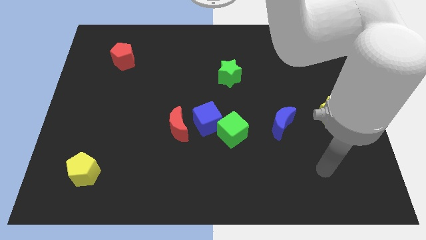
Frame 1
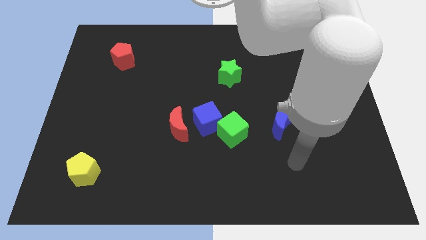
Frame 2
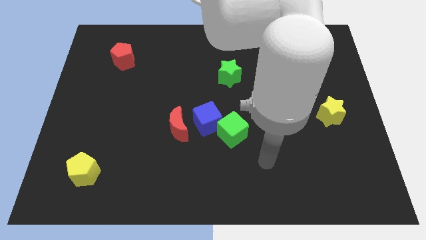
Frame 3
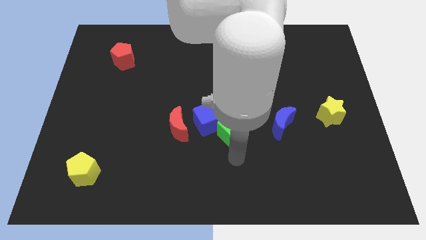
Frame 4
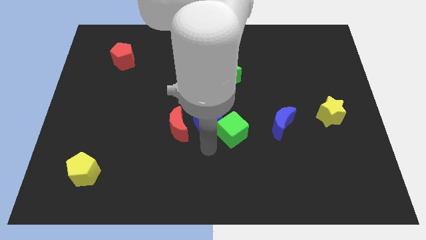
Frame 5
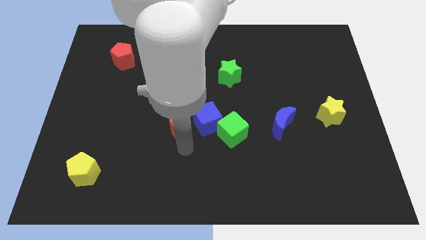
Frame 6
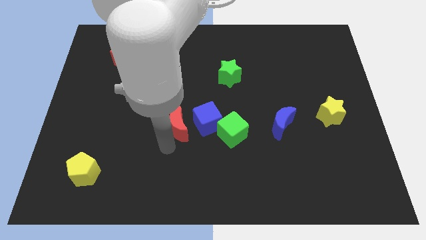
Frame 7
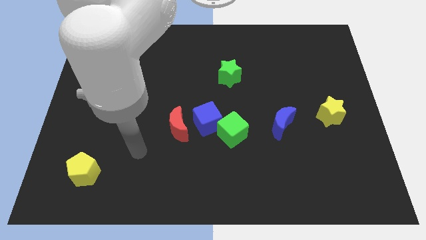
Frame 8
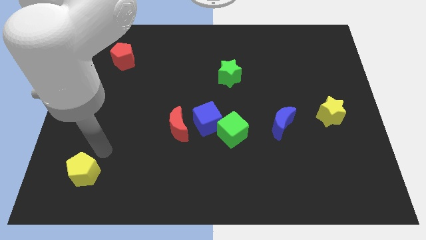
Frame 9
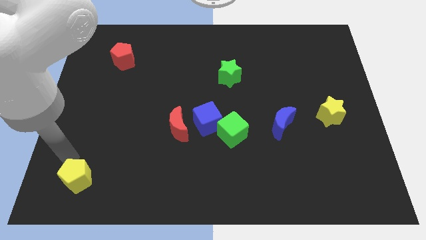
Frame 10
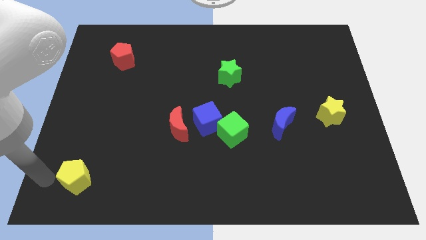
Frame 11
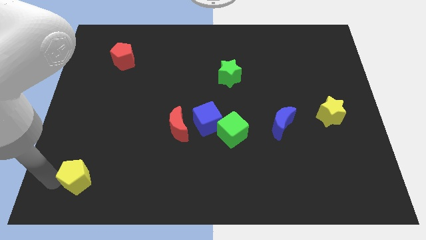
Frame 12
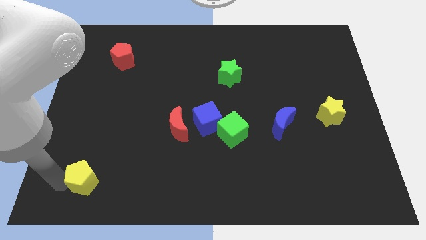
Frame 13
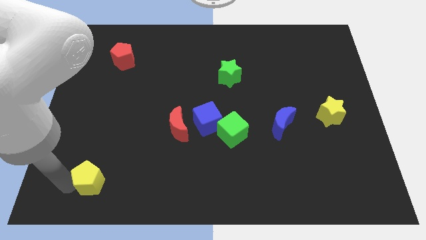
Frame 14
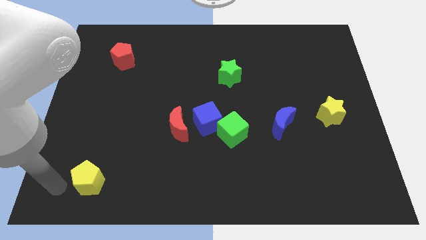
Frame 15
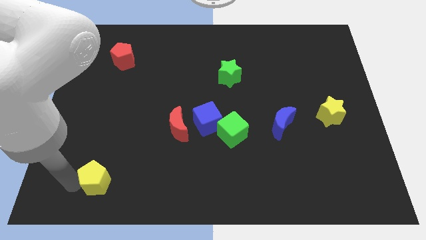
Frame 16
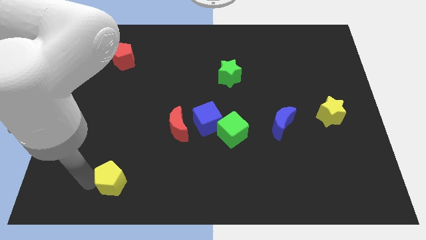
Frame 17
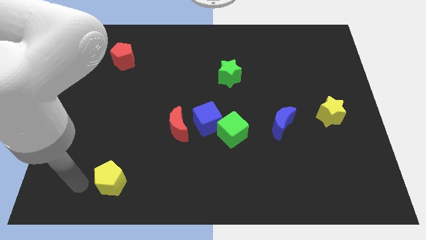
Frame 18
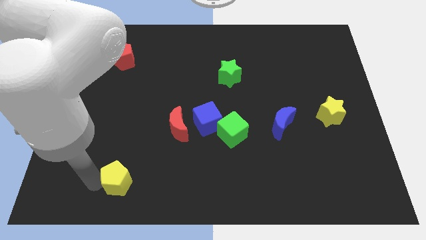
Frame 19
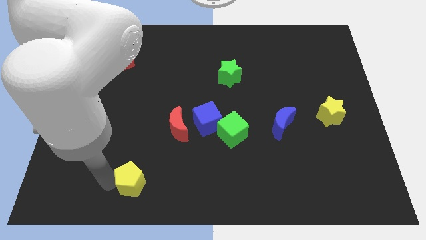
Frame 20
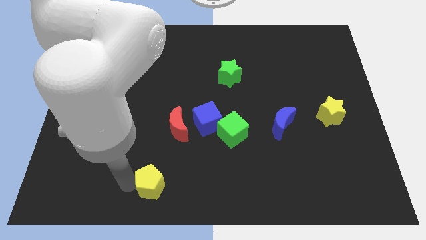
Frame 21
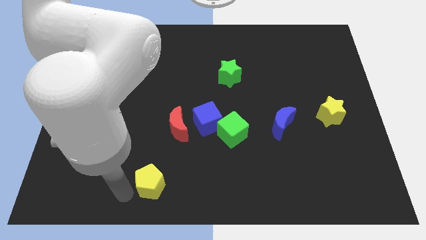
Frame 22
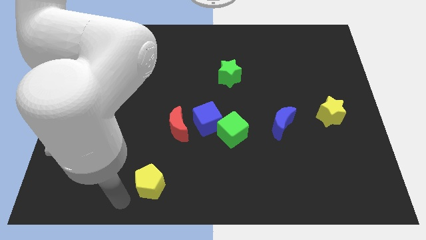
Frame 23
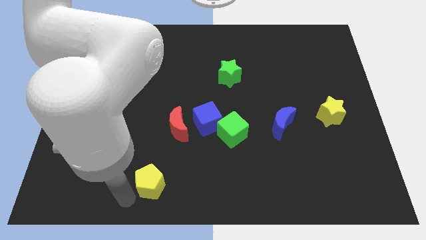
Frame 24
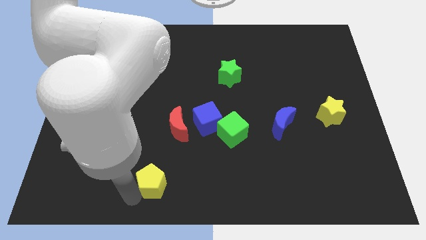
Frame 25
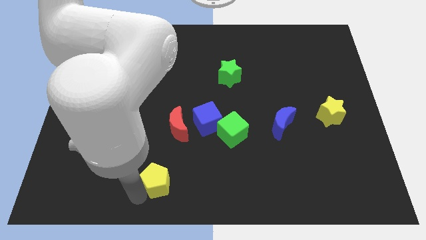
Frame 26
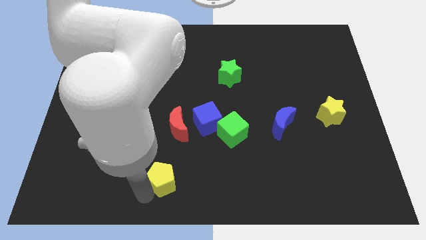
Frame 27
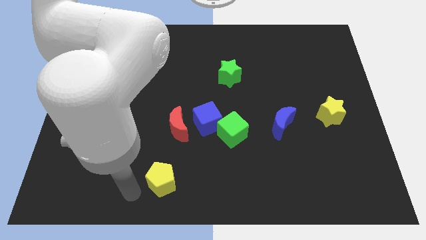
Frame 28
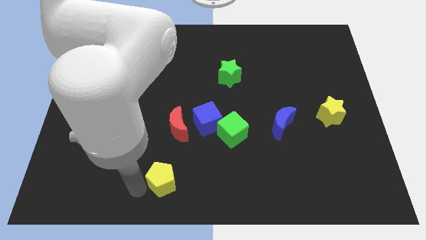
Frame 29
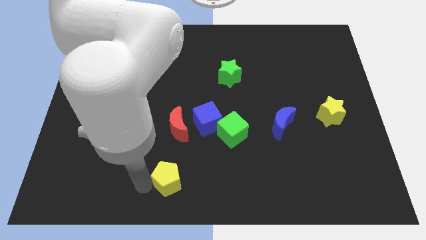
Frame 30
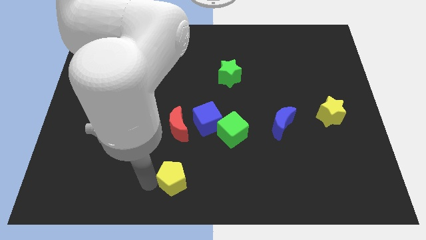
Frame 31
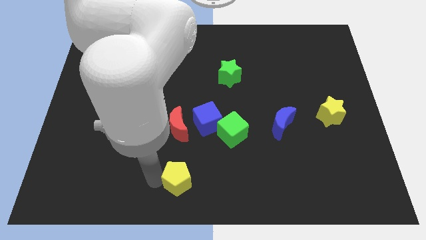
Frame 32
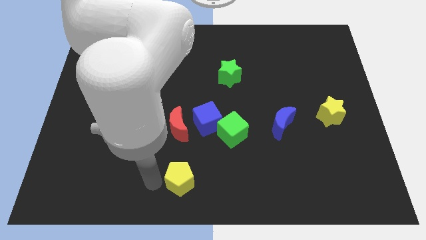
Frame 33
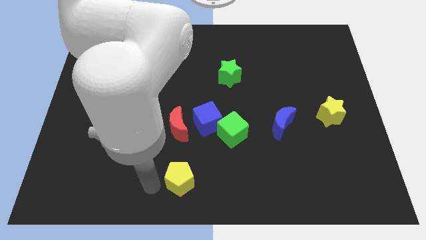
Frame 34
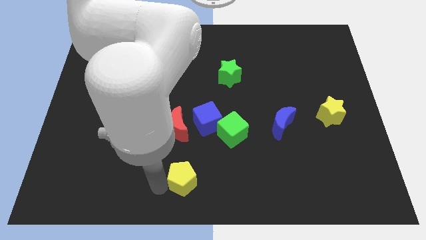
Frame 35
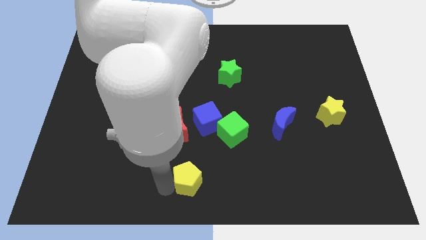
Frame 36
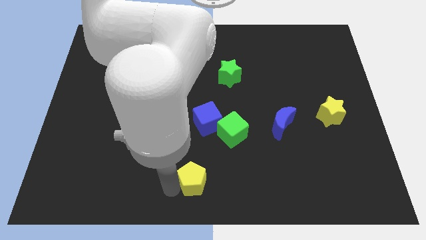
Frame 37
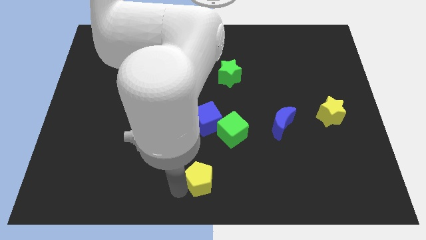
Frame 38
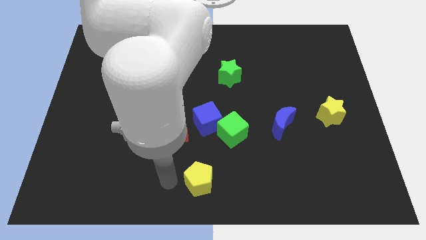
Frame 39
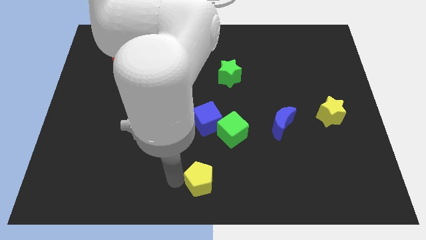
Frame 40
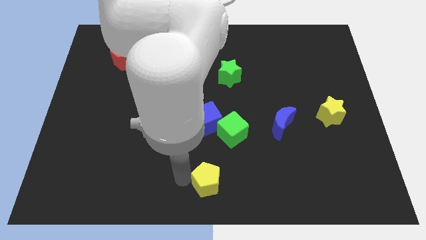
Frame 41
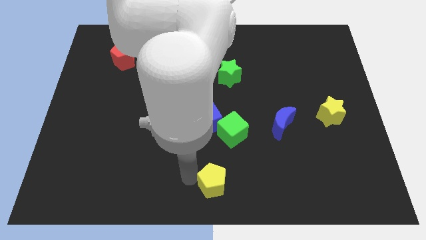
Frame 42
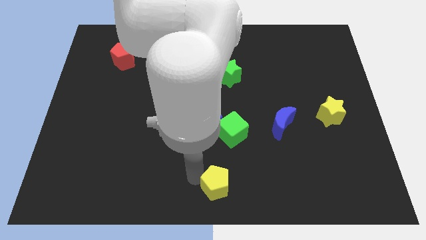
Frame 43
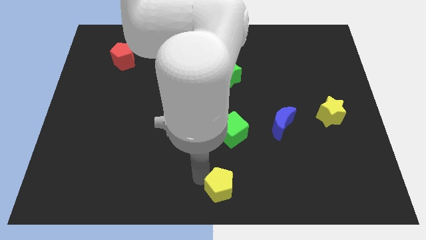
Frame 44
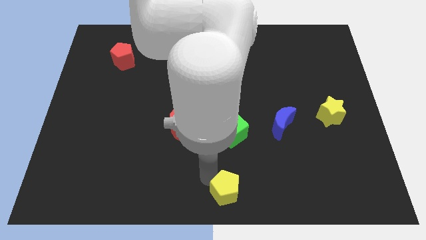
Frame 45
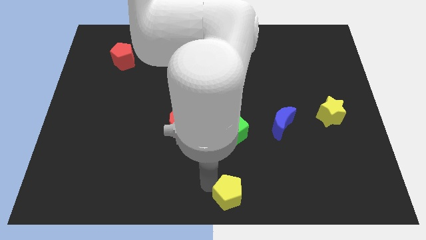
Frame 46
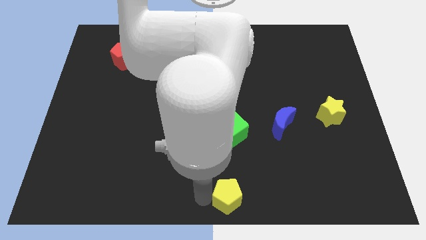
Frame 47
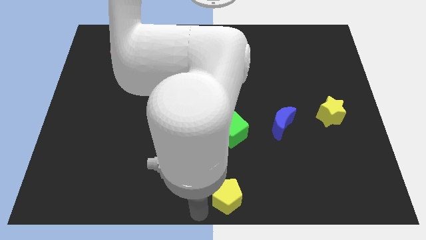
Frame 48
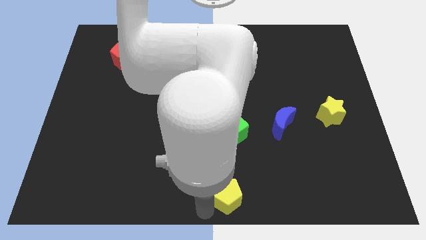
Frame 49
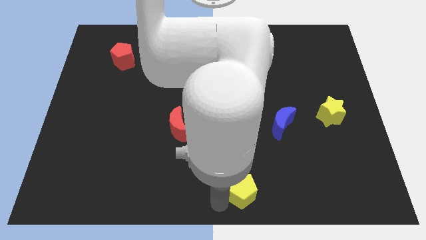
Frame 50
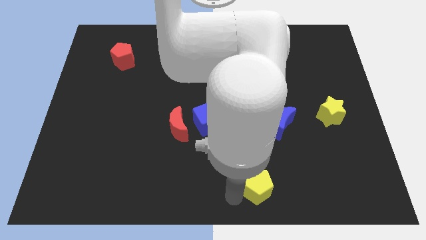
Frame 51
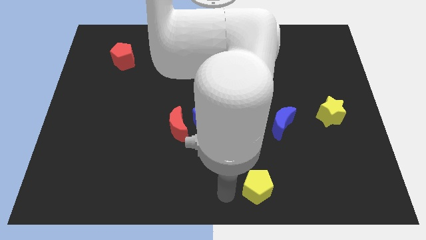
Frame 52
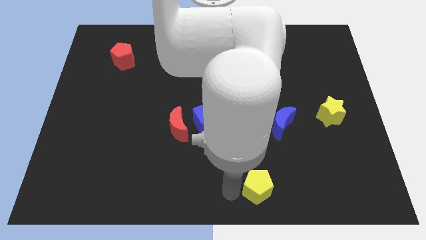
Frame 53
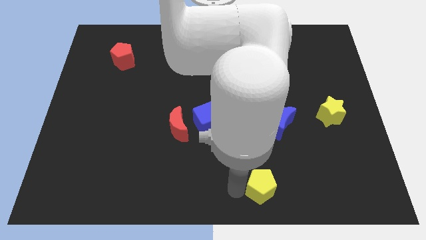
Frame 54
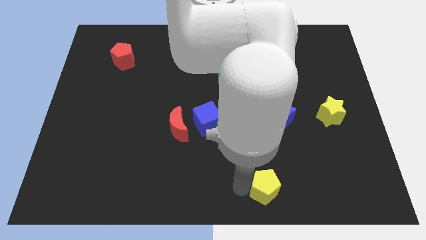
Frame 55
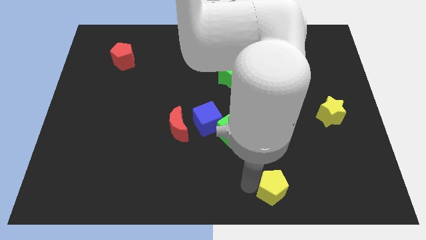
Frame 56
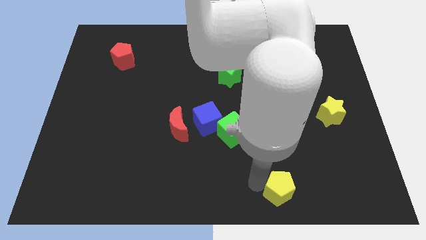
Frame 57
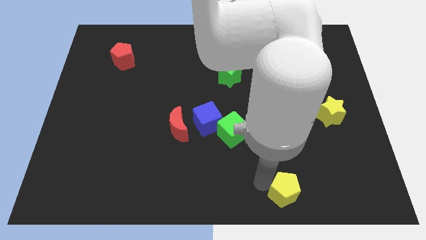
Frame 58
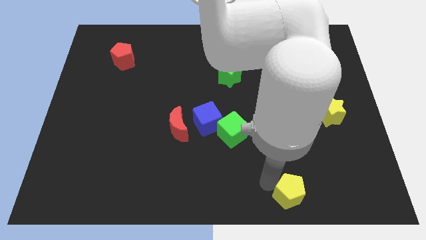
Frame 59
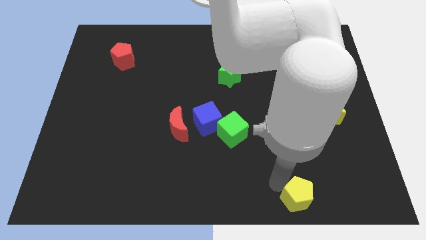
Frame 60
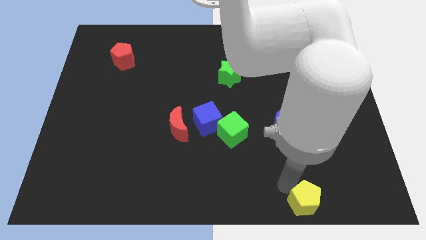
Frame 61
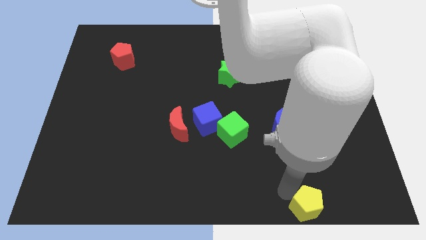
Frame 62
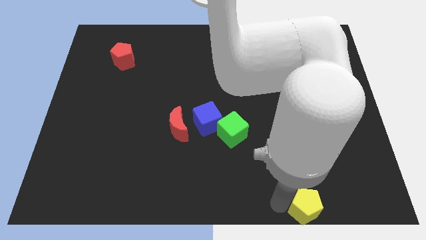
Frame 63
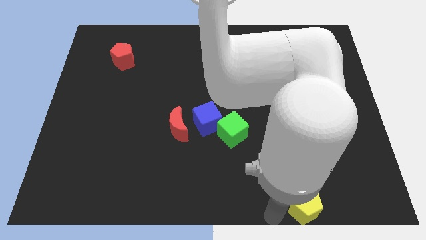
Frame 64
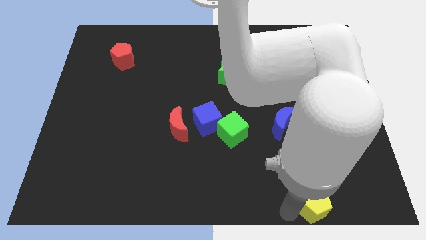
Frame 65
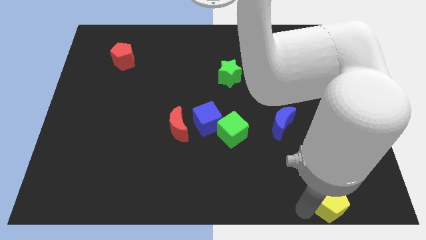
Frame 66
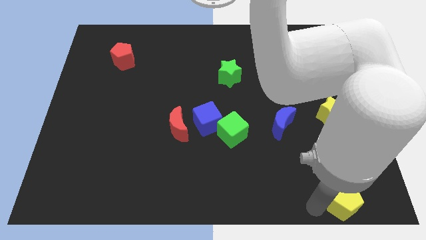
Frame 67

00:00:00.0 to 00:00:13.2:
put the yellow pentagon to the lower right corner

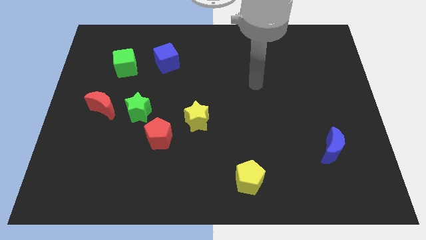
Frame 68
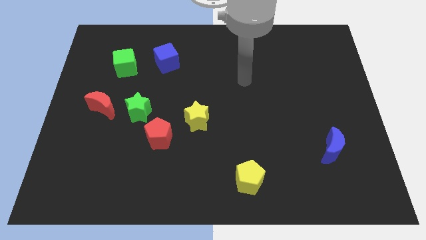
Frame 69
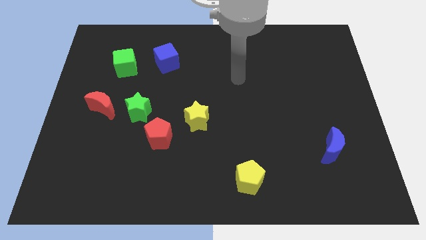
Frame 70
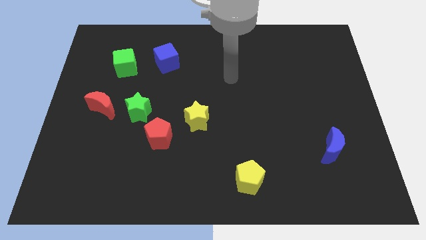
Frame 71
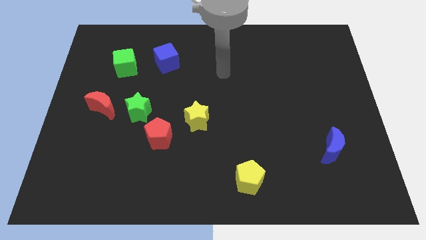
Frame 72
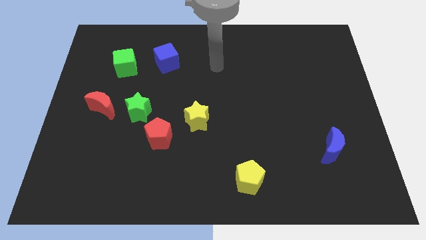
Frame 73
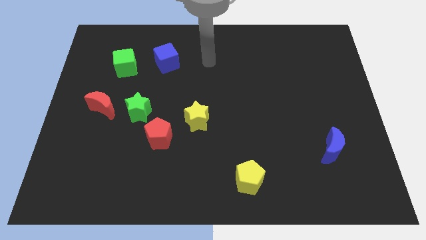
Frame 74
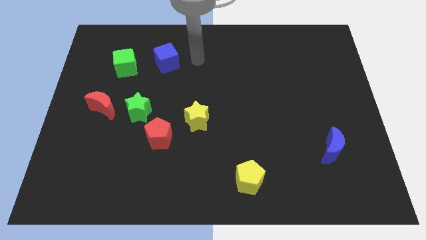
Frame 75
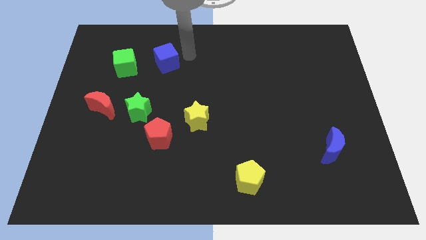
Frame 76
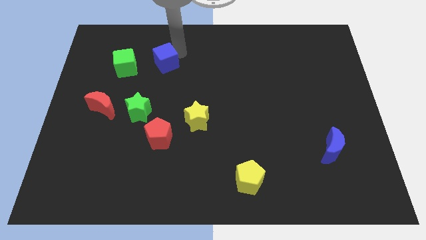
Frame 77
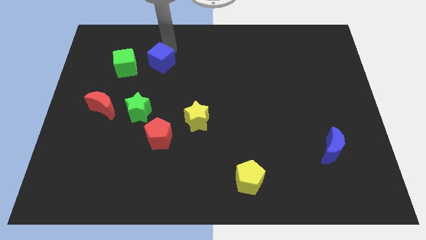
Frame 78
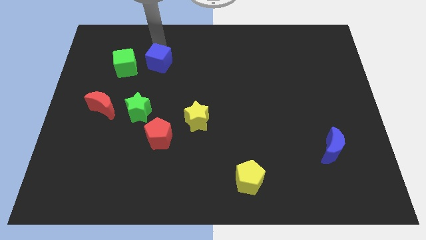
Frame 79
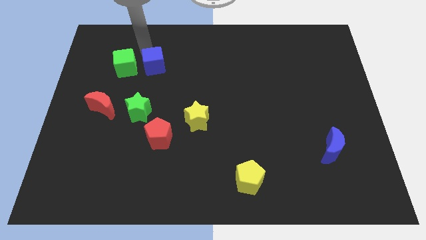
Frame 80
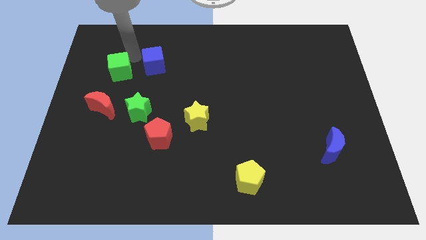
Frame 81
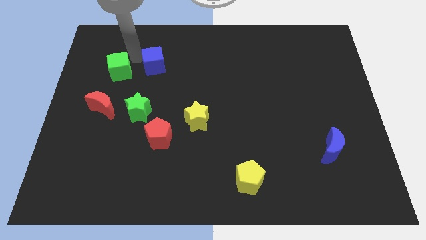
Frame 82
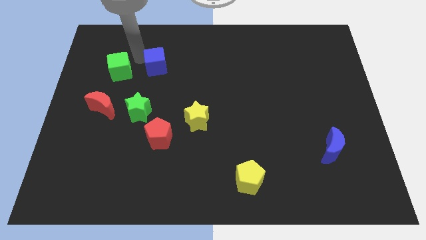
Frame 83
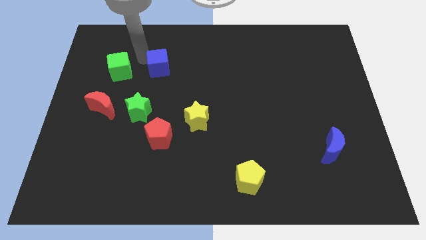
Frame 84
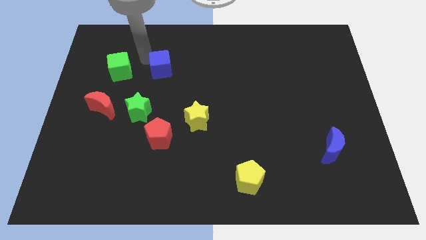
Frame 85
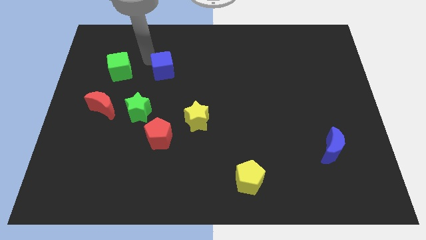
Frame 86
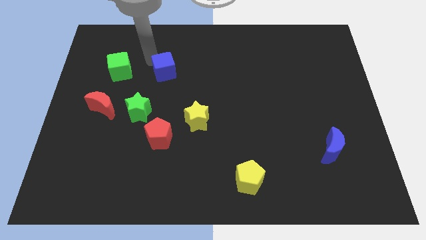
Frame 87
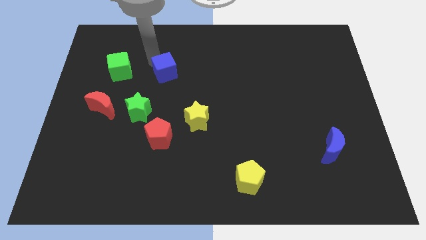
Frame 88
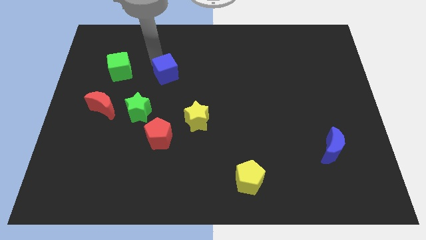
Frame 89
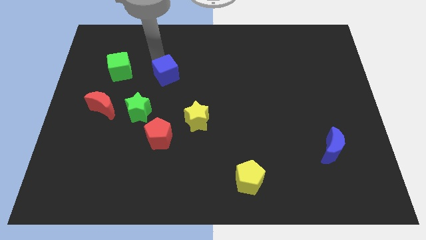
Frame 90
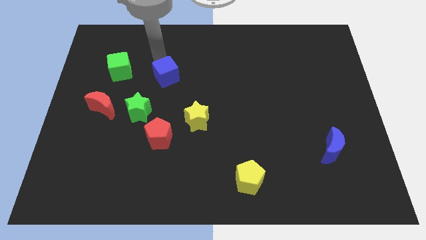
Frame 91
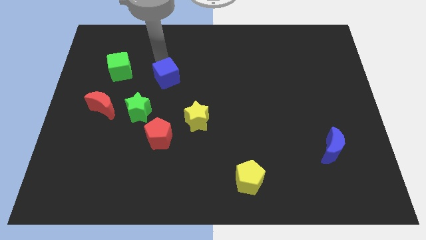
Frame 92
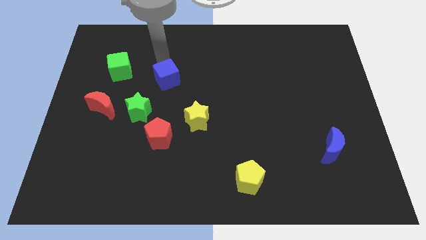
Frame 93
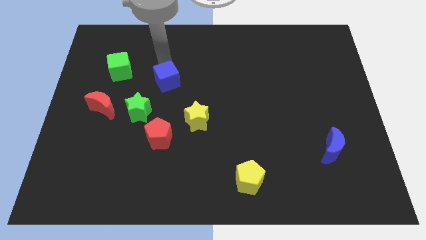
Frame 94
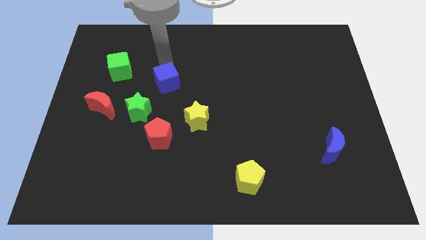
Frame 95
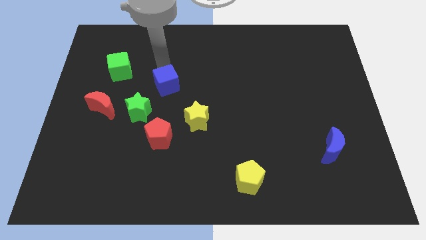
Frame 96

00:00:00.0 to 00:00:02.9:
put the blue cube to the middle of the board
